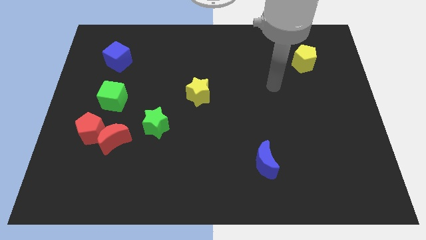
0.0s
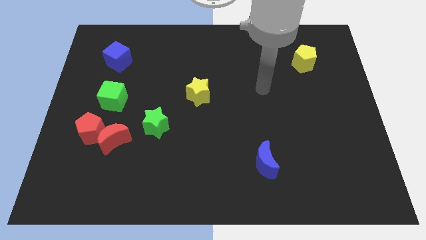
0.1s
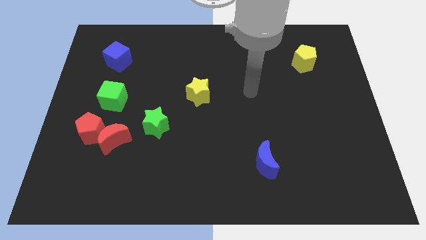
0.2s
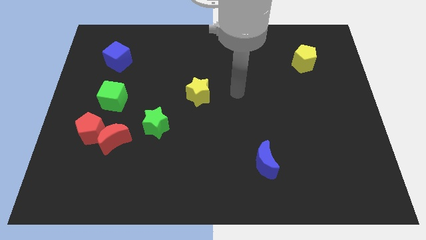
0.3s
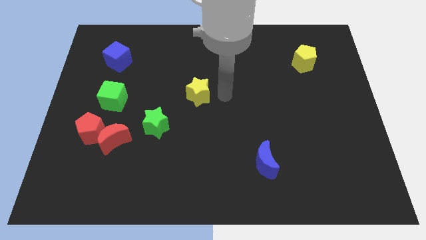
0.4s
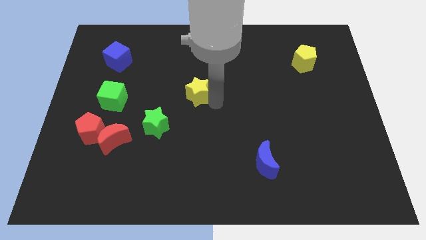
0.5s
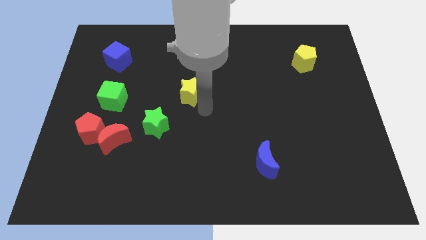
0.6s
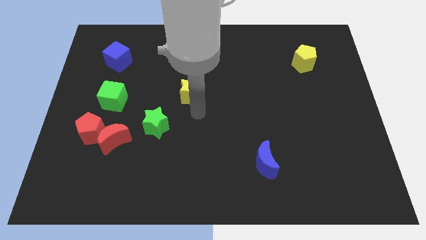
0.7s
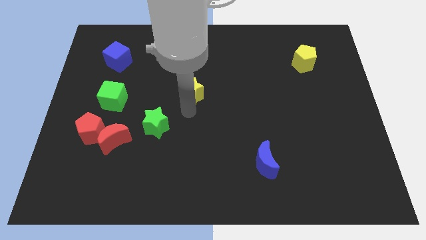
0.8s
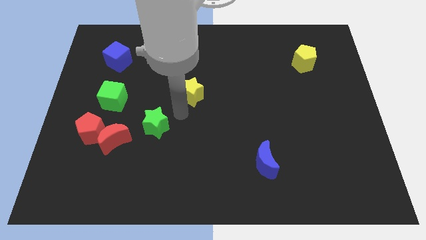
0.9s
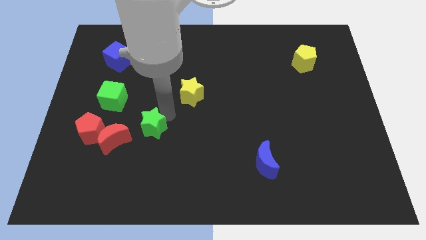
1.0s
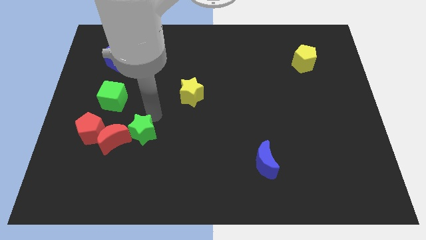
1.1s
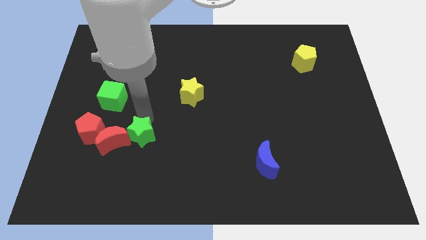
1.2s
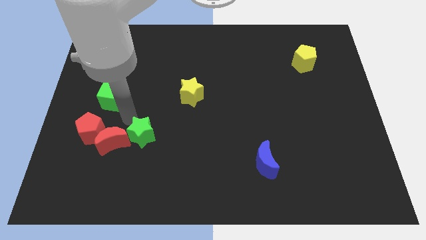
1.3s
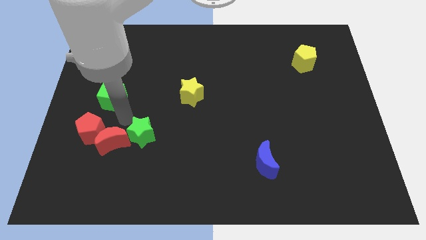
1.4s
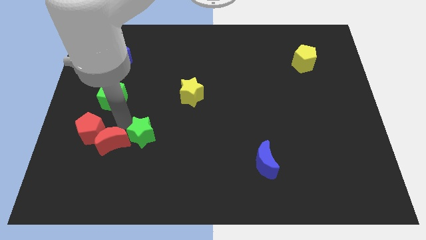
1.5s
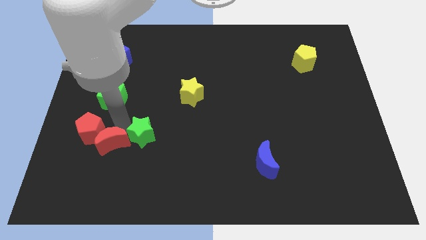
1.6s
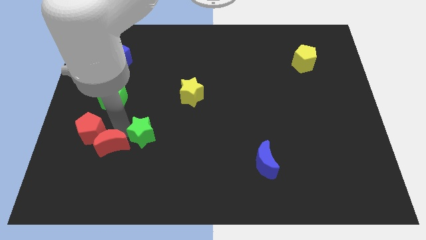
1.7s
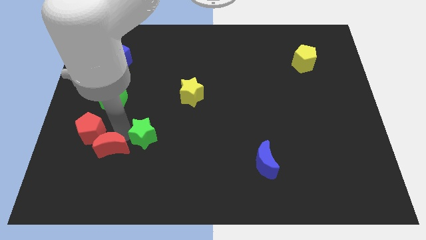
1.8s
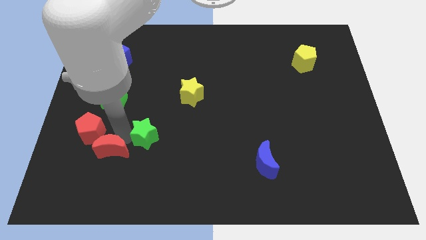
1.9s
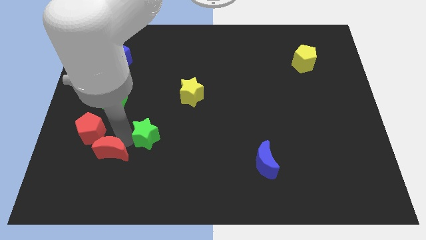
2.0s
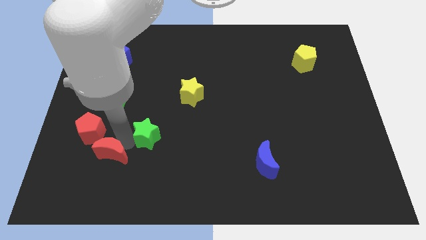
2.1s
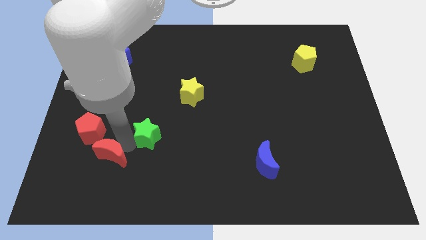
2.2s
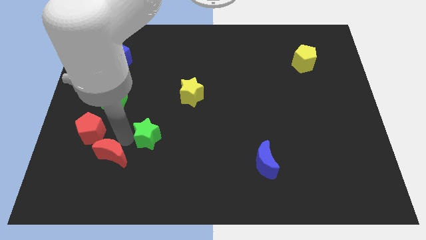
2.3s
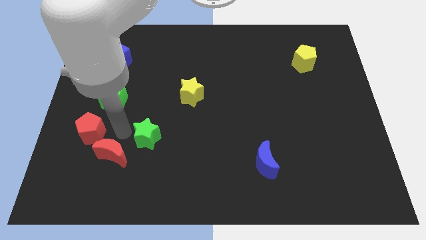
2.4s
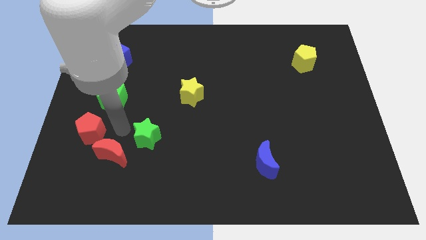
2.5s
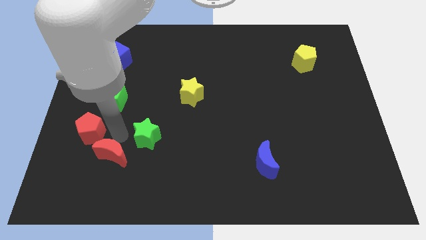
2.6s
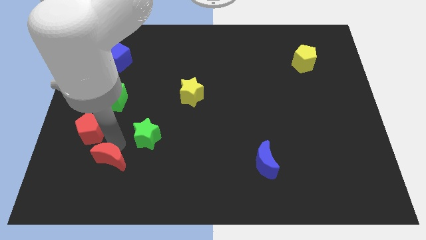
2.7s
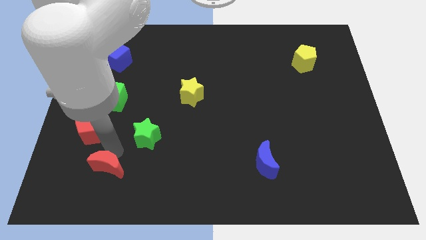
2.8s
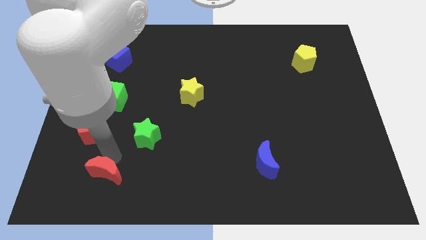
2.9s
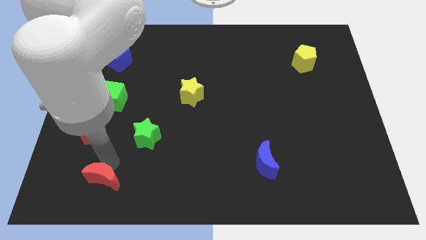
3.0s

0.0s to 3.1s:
separate the red moon from the red pentagon and green star

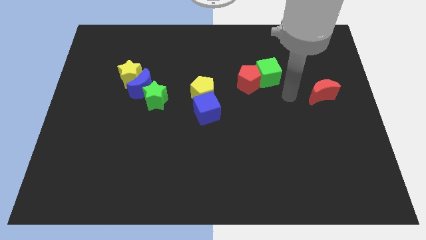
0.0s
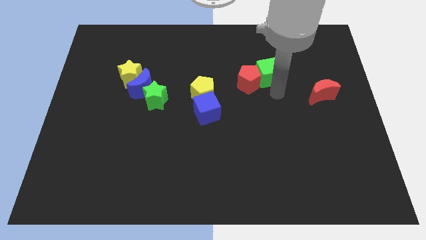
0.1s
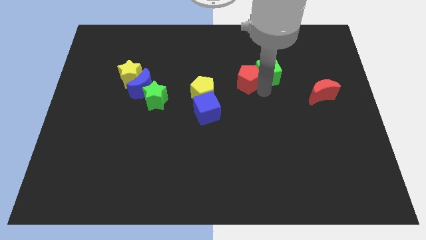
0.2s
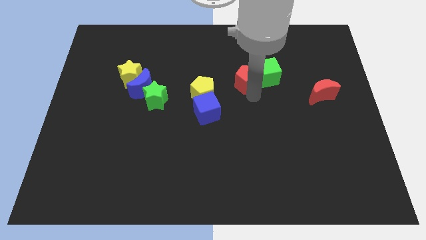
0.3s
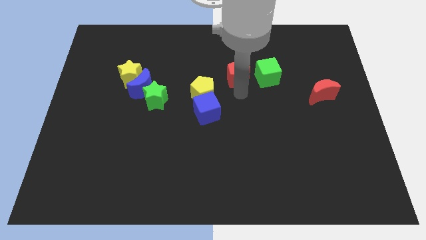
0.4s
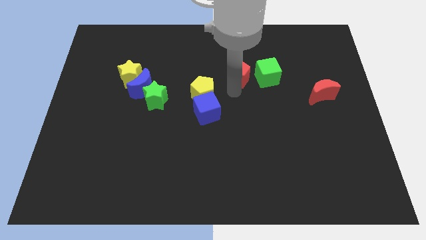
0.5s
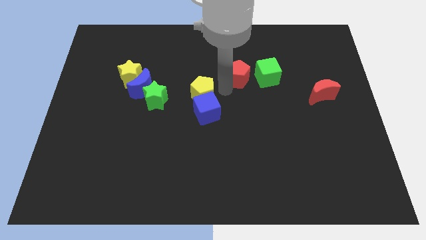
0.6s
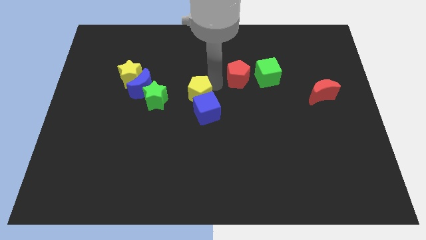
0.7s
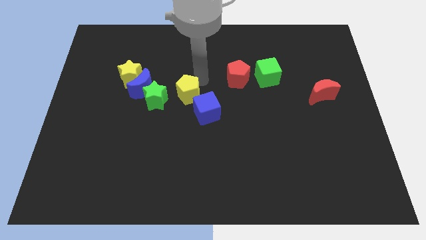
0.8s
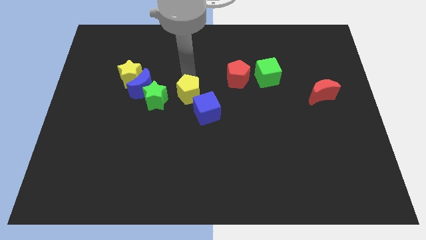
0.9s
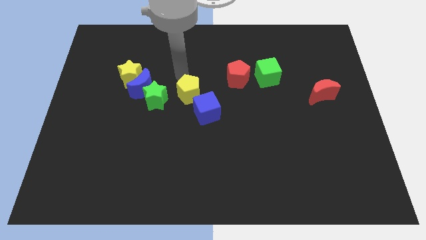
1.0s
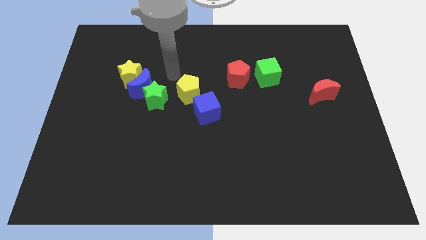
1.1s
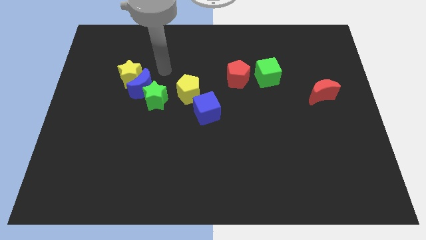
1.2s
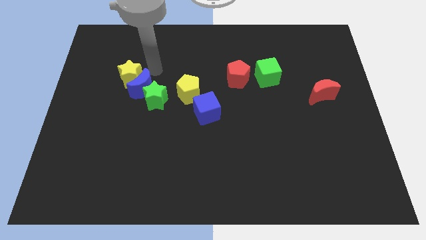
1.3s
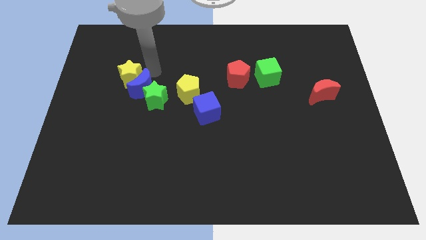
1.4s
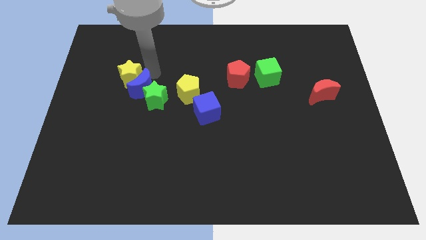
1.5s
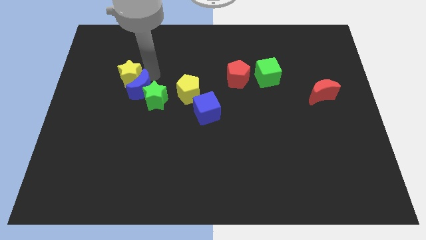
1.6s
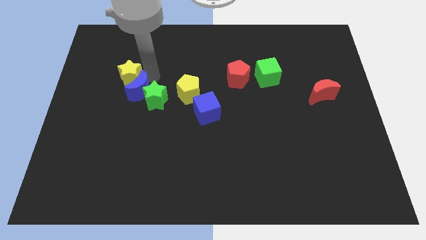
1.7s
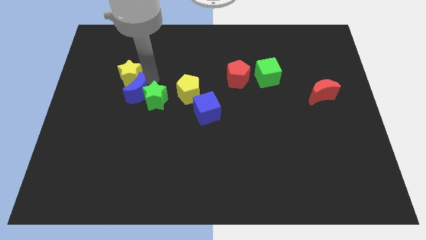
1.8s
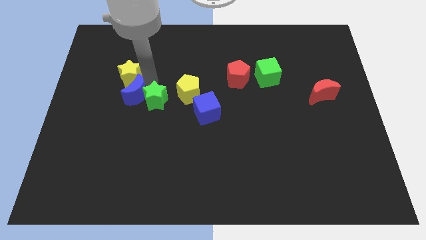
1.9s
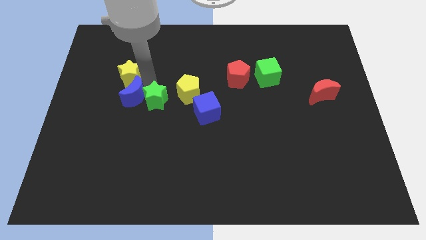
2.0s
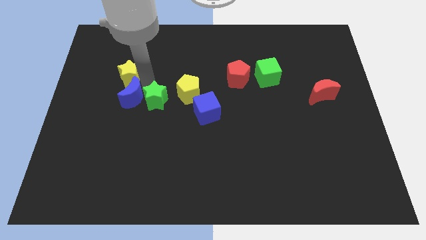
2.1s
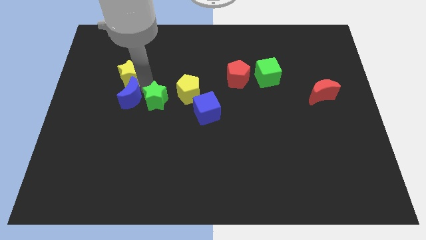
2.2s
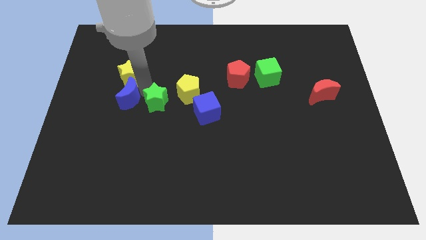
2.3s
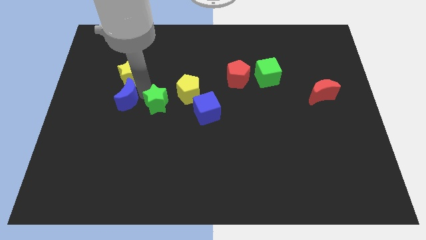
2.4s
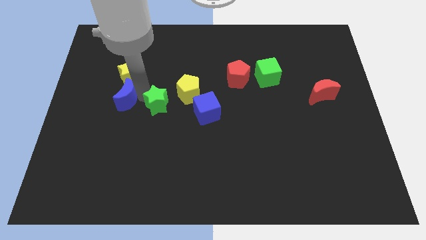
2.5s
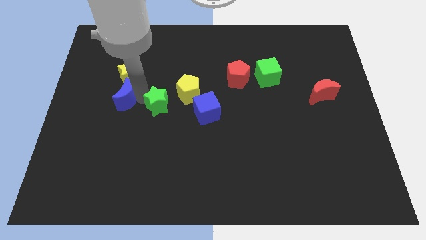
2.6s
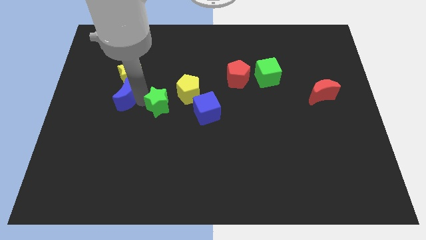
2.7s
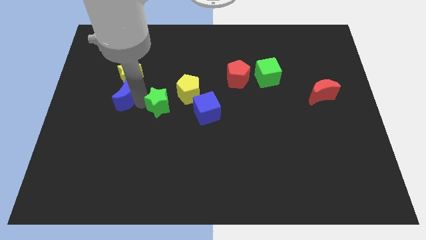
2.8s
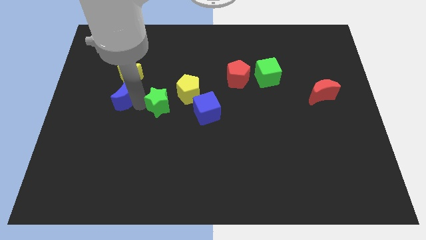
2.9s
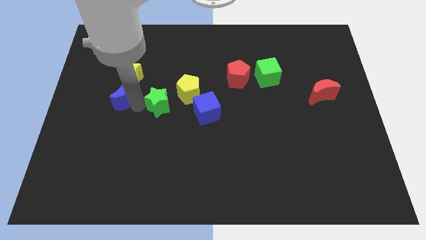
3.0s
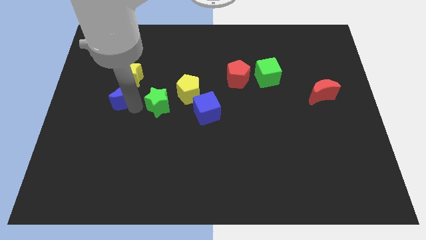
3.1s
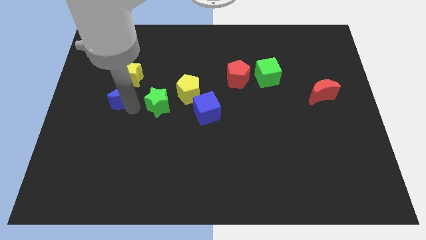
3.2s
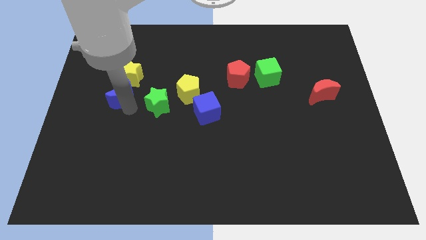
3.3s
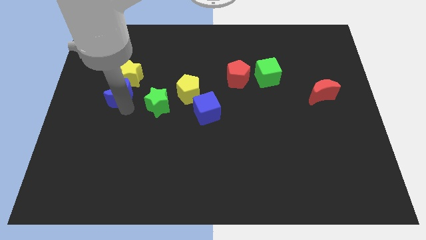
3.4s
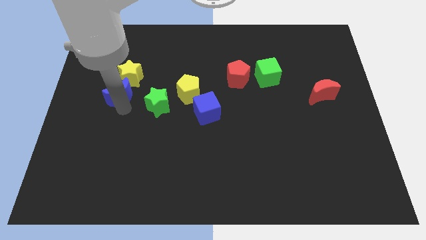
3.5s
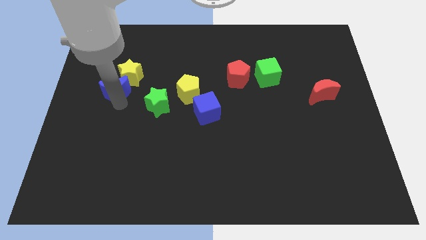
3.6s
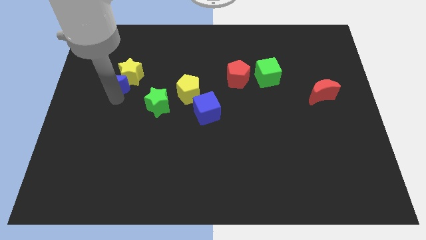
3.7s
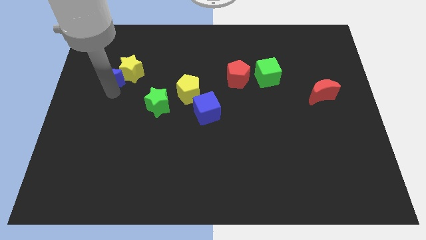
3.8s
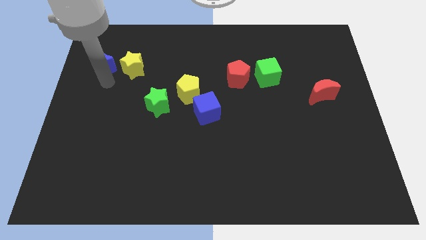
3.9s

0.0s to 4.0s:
separate the blue moon from the green star and yellow star

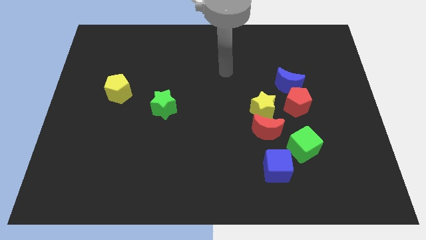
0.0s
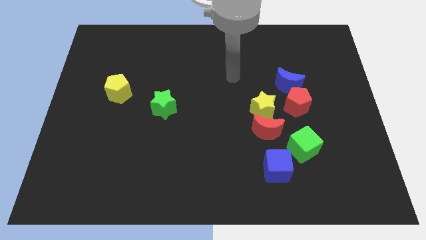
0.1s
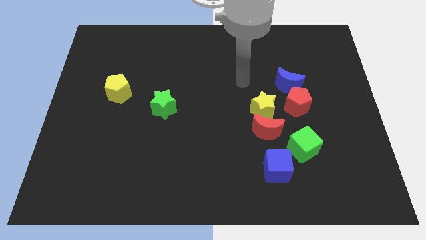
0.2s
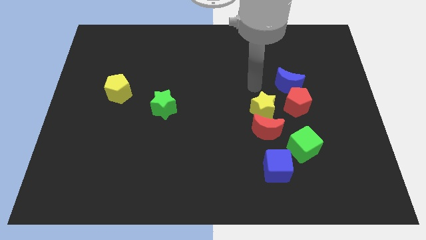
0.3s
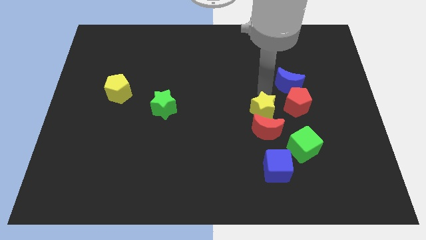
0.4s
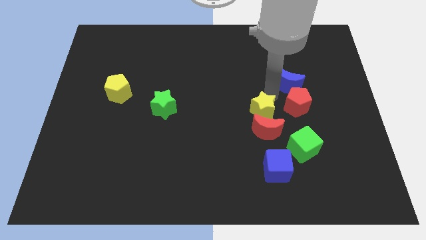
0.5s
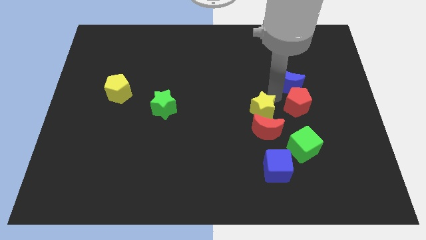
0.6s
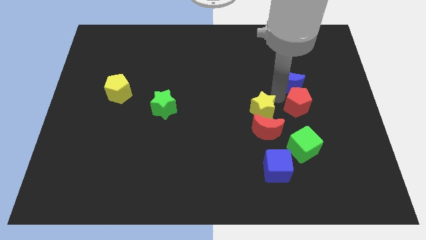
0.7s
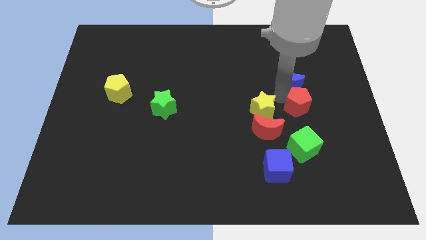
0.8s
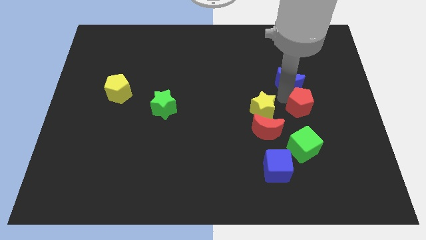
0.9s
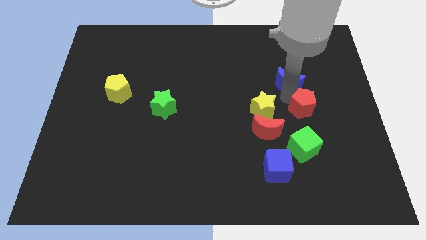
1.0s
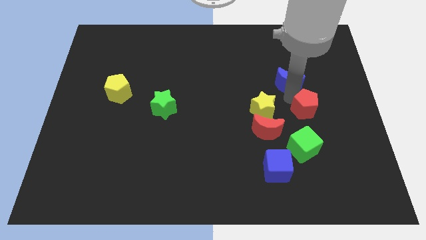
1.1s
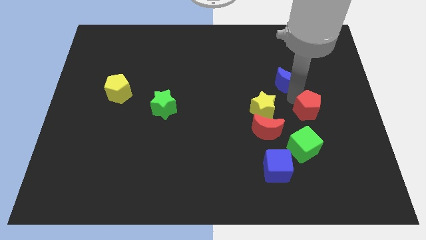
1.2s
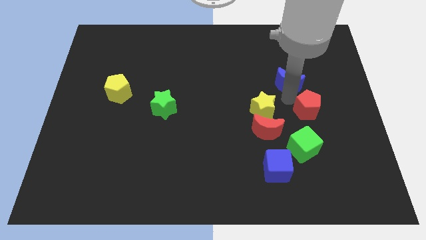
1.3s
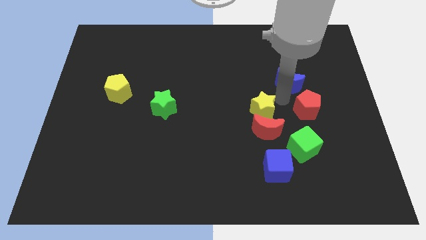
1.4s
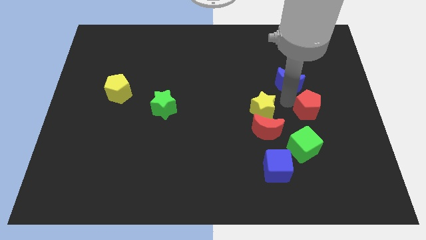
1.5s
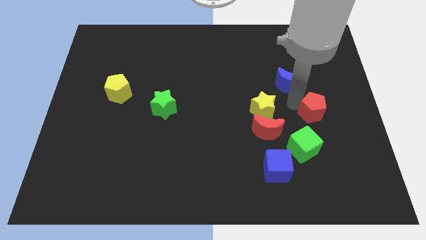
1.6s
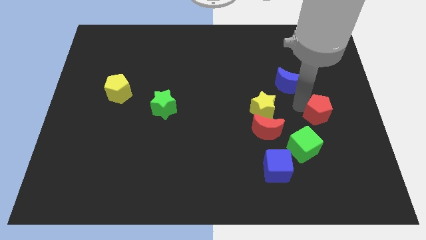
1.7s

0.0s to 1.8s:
pull the red pentagon apart from the blue moon and yellow star

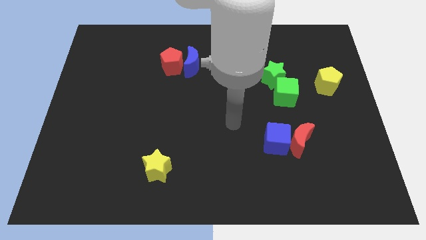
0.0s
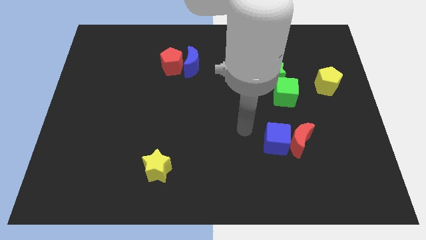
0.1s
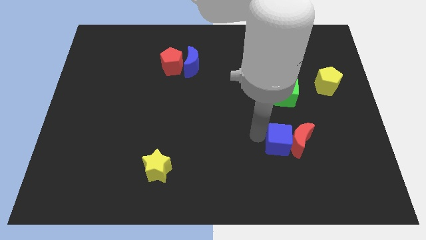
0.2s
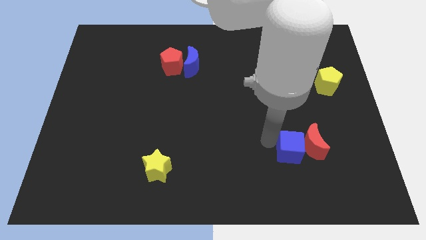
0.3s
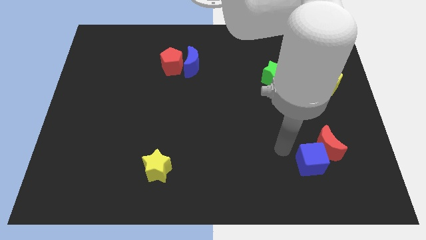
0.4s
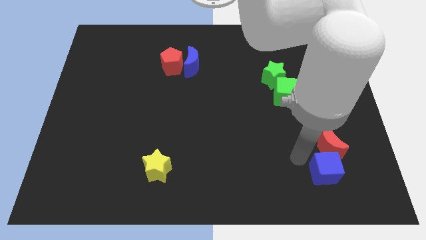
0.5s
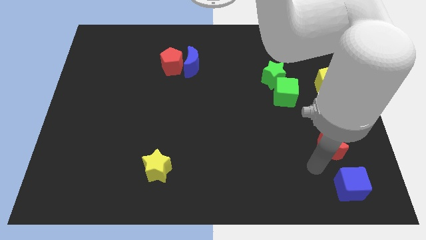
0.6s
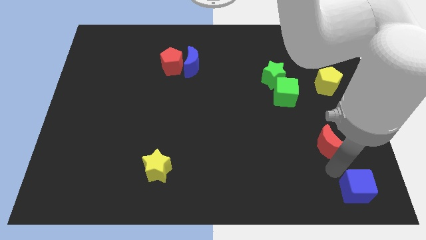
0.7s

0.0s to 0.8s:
move the red moon away from the blue cube
